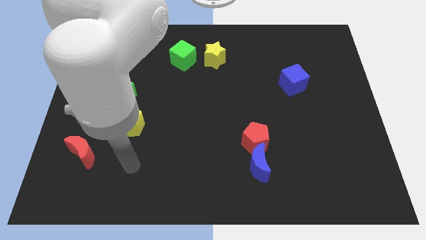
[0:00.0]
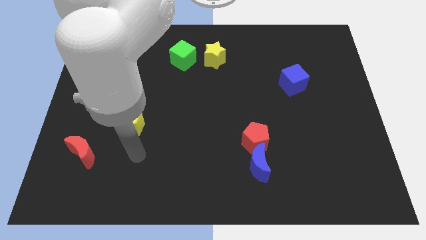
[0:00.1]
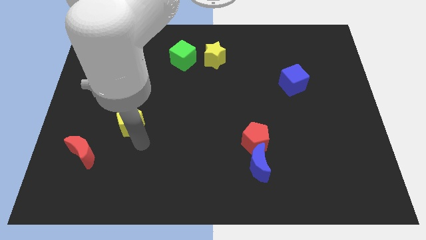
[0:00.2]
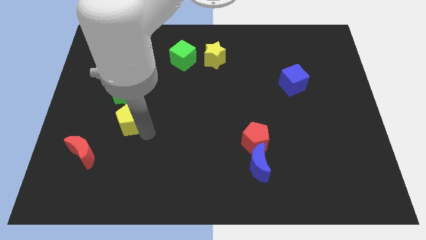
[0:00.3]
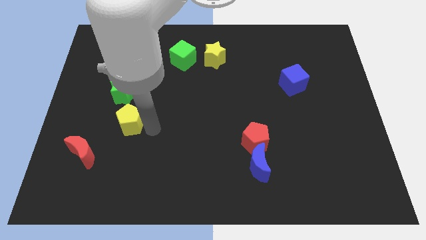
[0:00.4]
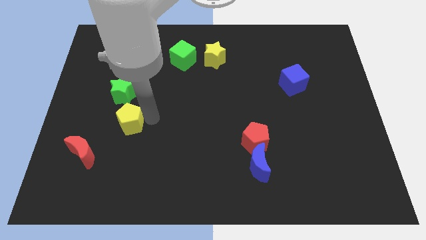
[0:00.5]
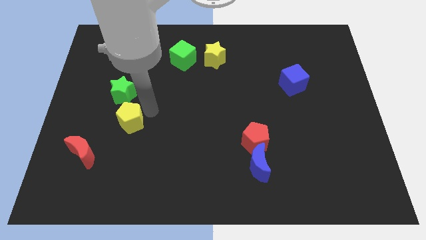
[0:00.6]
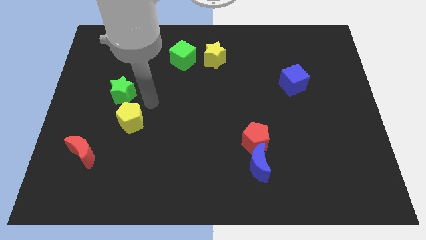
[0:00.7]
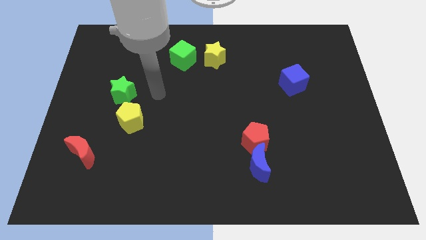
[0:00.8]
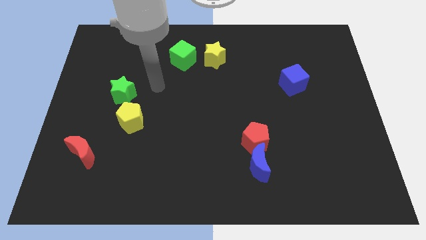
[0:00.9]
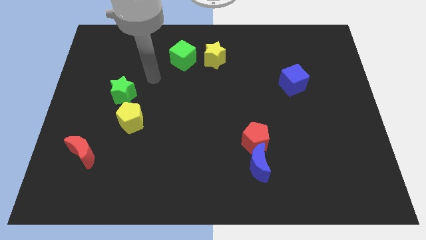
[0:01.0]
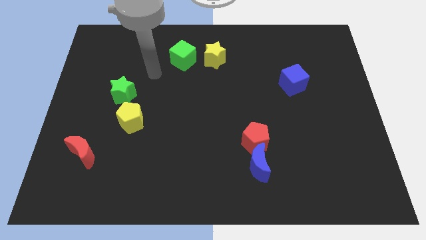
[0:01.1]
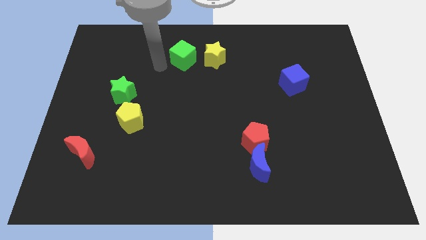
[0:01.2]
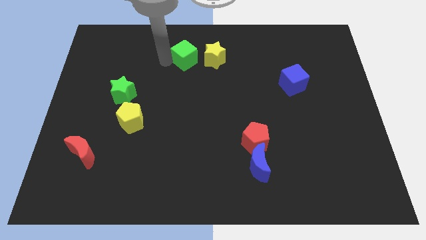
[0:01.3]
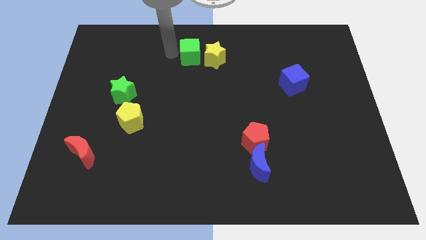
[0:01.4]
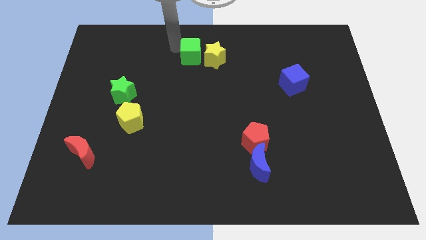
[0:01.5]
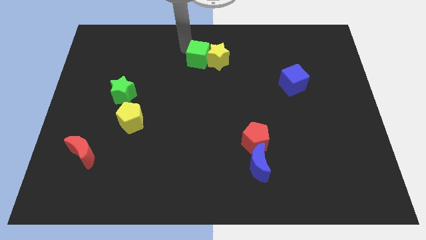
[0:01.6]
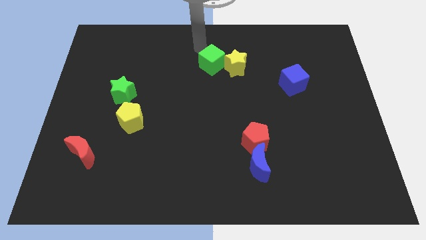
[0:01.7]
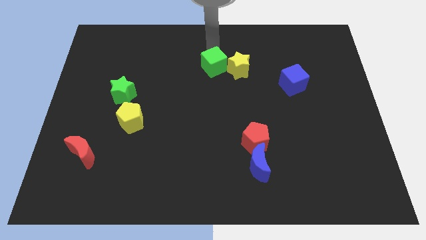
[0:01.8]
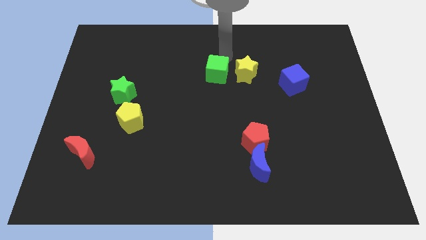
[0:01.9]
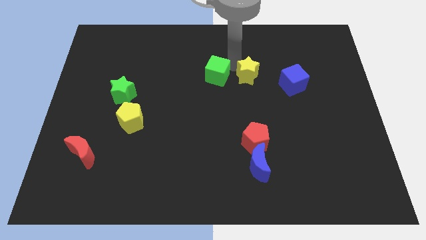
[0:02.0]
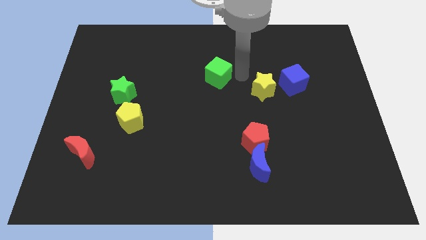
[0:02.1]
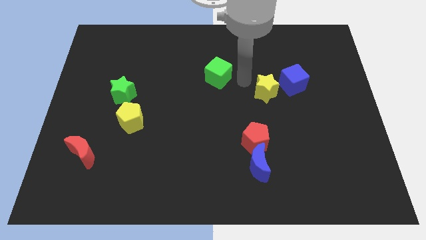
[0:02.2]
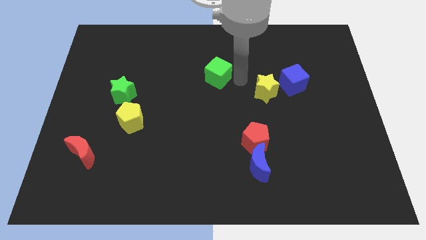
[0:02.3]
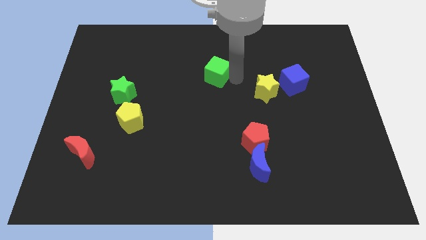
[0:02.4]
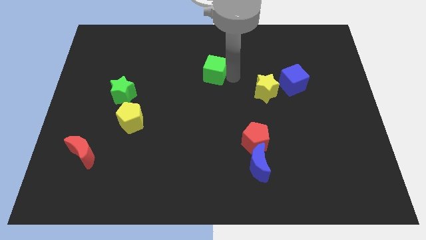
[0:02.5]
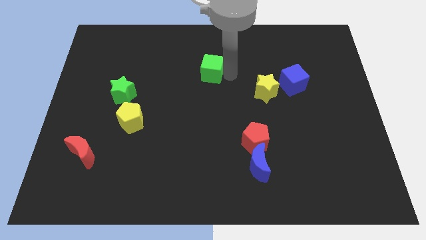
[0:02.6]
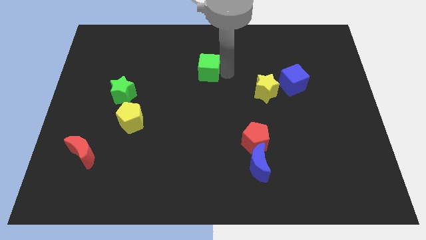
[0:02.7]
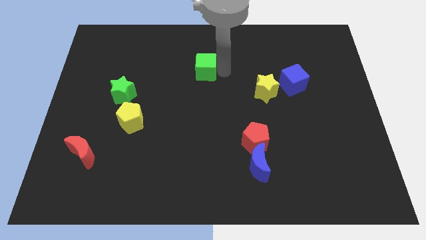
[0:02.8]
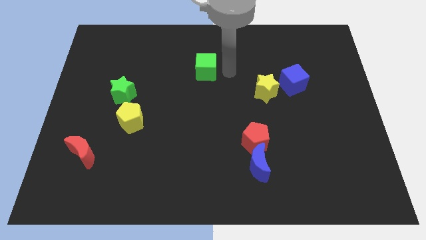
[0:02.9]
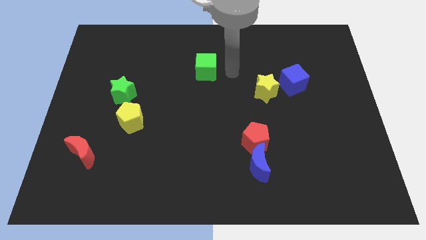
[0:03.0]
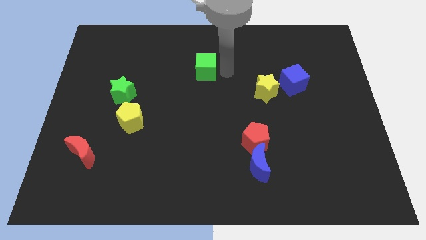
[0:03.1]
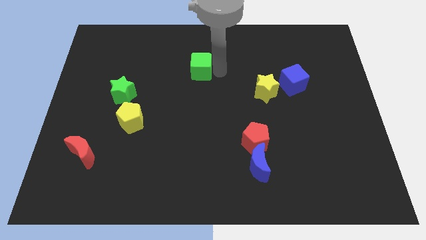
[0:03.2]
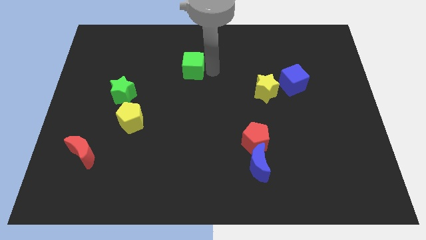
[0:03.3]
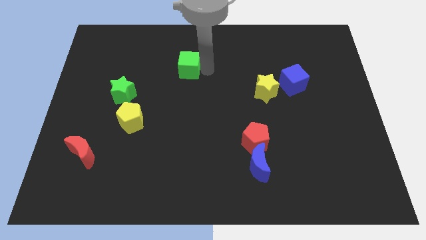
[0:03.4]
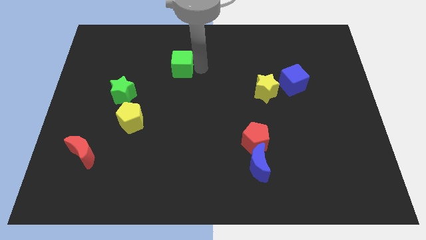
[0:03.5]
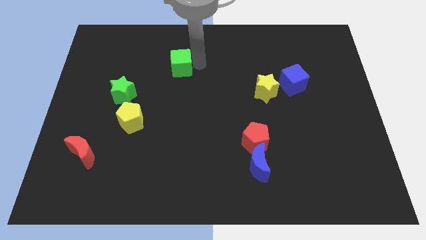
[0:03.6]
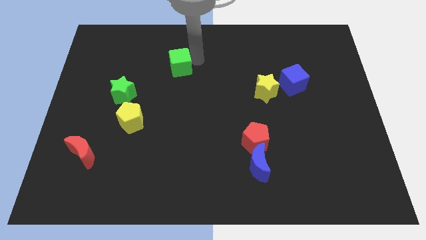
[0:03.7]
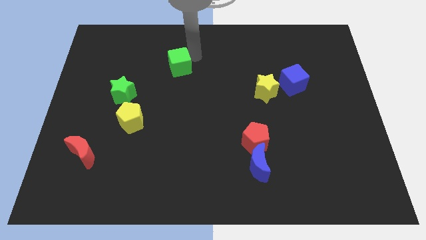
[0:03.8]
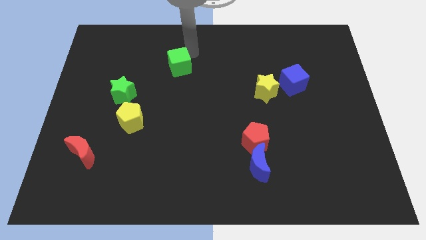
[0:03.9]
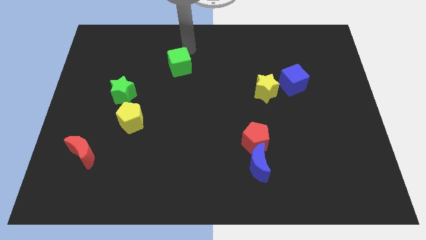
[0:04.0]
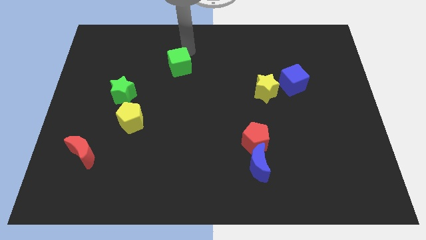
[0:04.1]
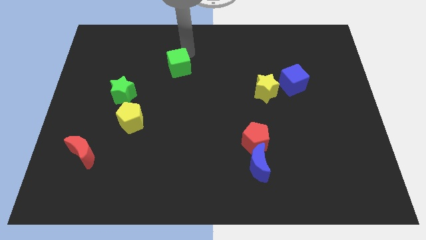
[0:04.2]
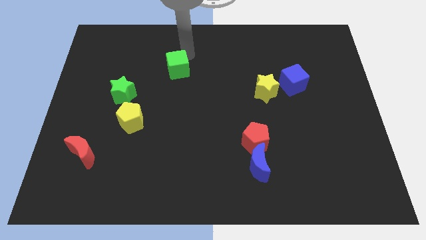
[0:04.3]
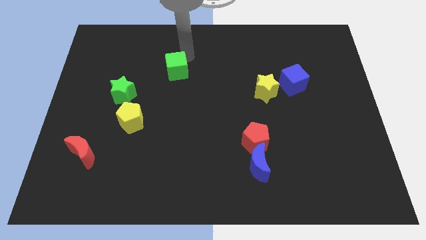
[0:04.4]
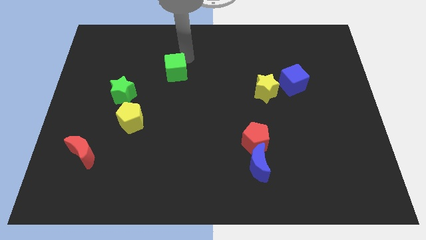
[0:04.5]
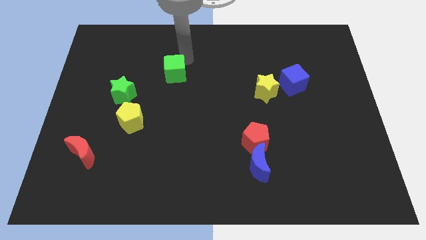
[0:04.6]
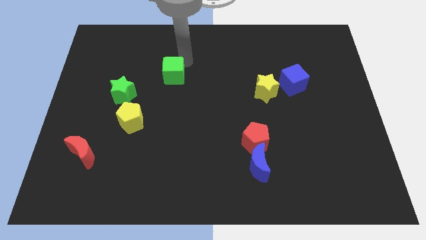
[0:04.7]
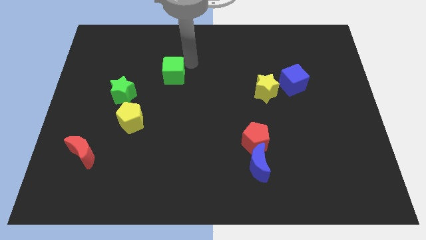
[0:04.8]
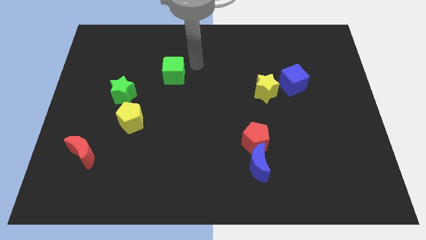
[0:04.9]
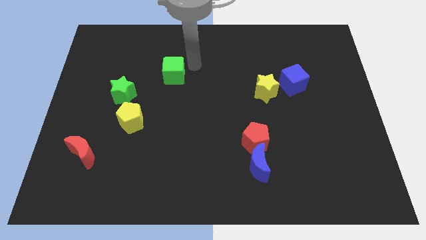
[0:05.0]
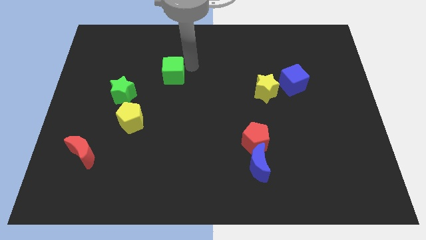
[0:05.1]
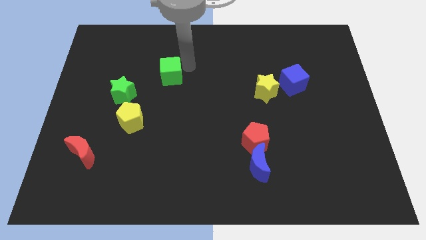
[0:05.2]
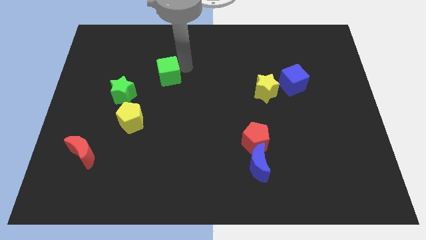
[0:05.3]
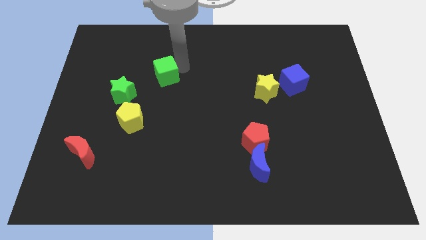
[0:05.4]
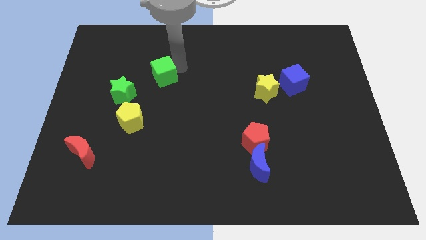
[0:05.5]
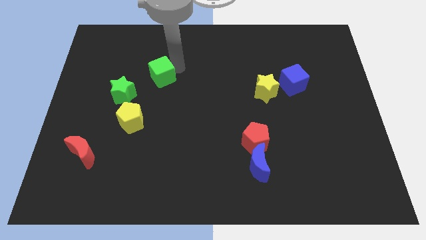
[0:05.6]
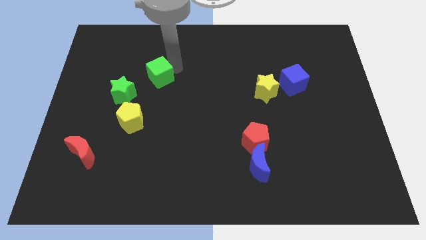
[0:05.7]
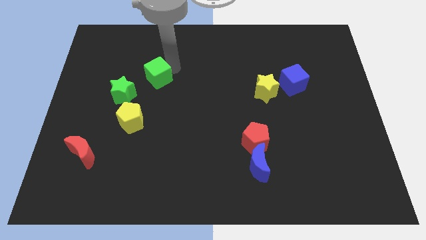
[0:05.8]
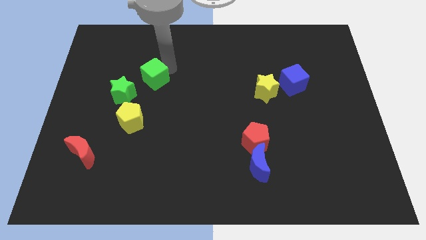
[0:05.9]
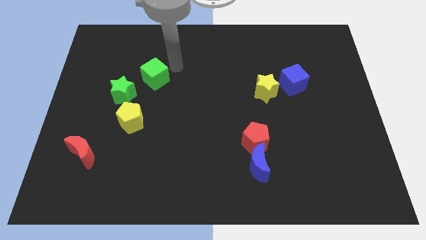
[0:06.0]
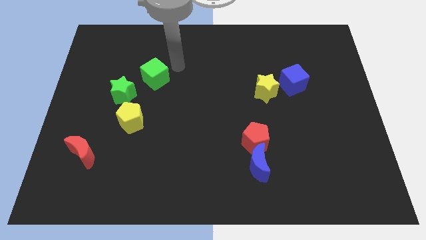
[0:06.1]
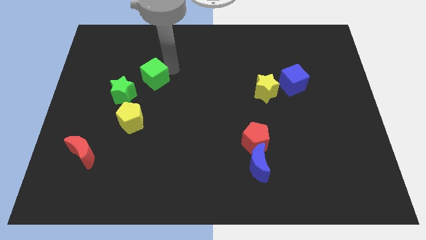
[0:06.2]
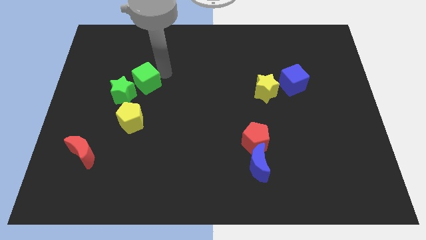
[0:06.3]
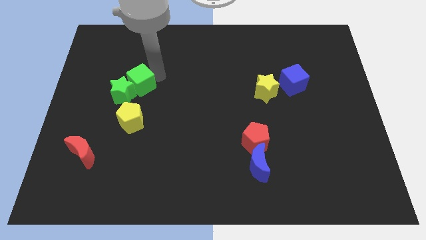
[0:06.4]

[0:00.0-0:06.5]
push the green cube close to the green star
